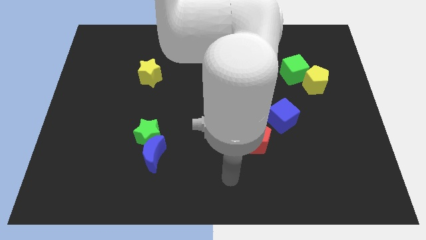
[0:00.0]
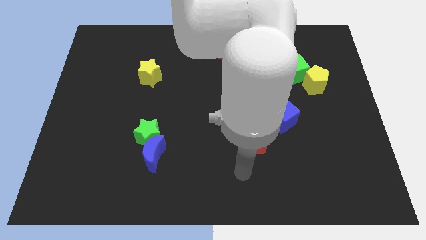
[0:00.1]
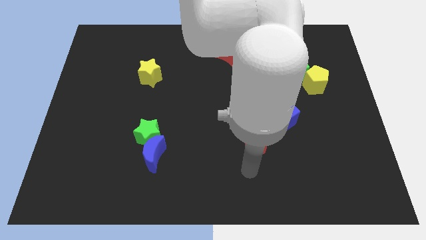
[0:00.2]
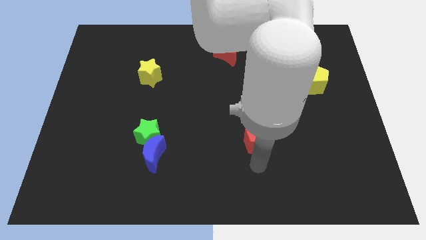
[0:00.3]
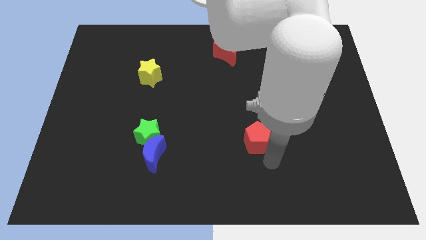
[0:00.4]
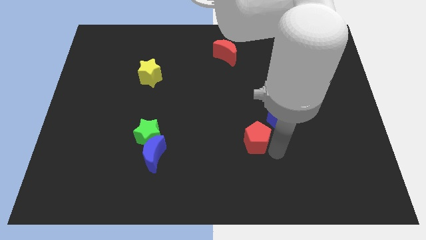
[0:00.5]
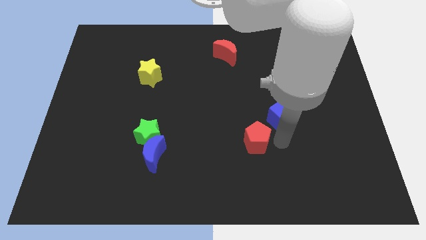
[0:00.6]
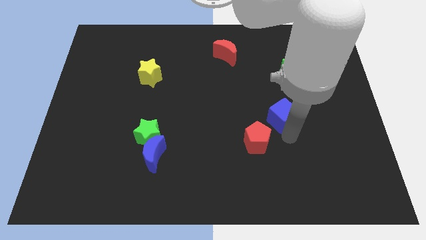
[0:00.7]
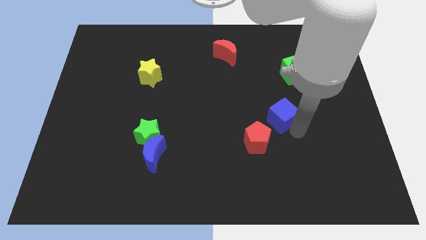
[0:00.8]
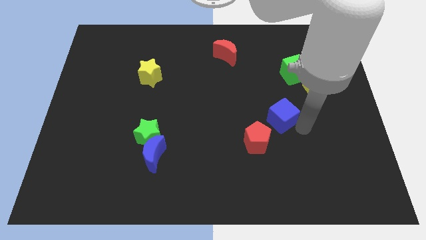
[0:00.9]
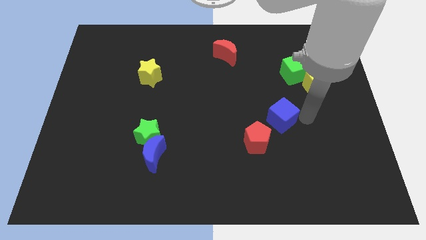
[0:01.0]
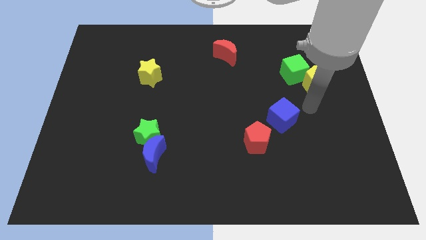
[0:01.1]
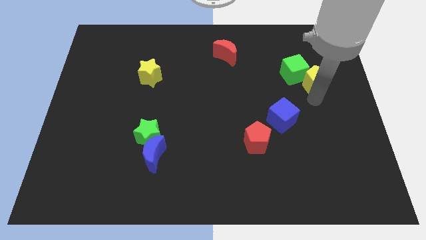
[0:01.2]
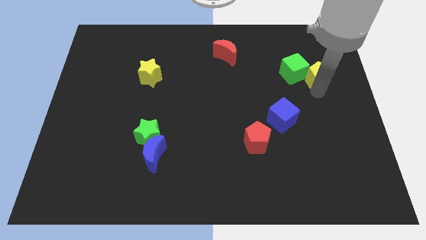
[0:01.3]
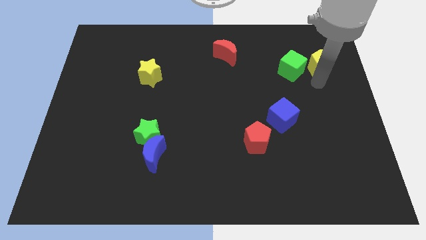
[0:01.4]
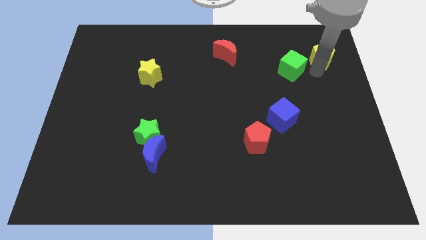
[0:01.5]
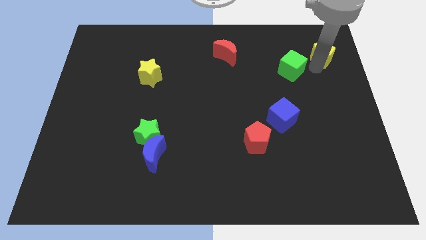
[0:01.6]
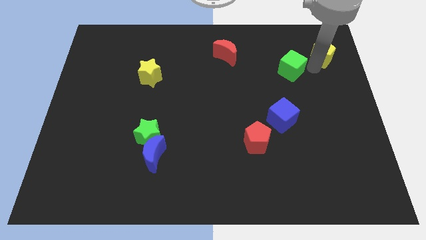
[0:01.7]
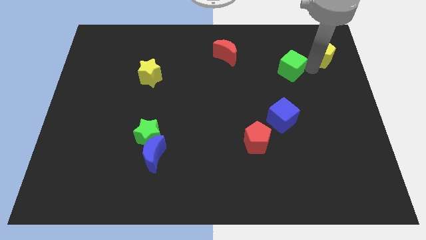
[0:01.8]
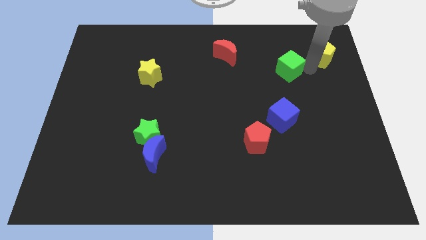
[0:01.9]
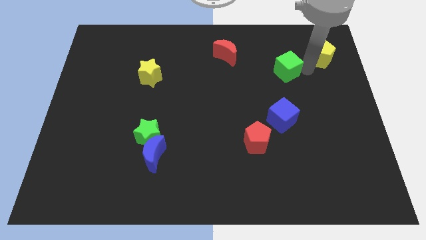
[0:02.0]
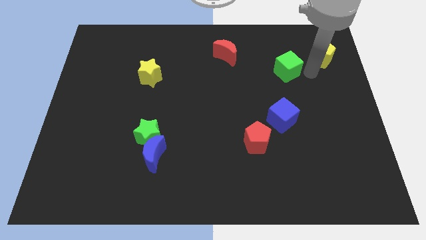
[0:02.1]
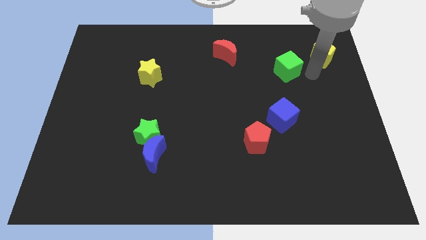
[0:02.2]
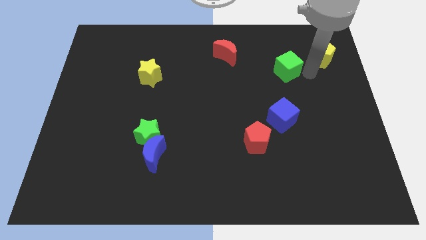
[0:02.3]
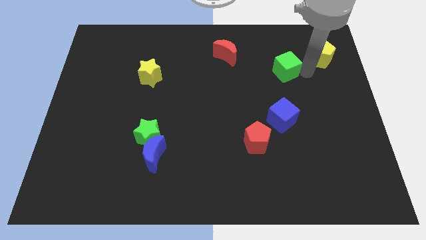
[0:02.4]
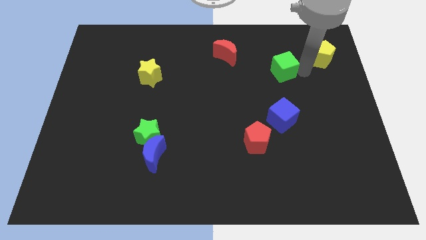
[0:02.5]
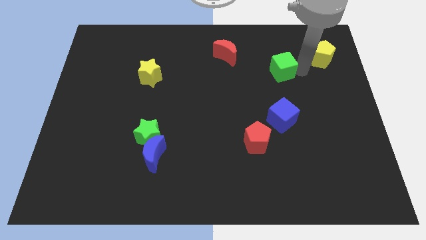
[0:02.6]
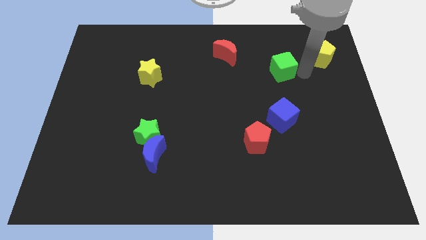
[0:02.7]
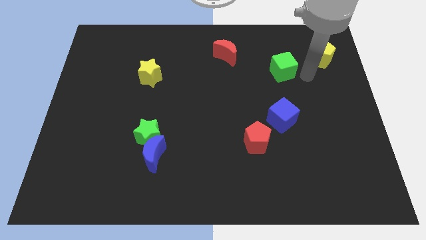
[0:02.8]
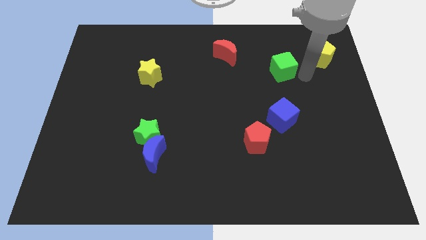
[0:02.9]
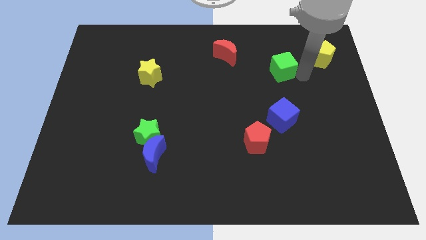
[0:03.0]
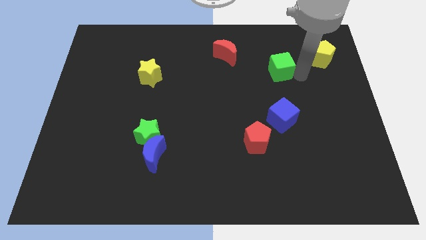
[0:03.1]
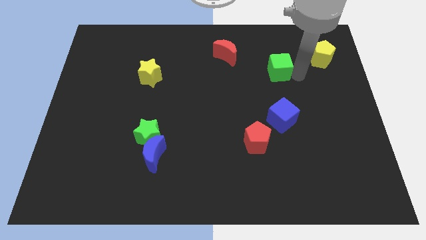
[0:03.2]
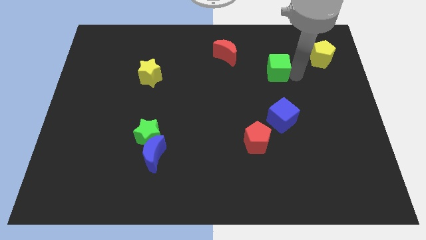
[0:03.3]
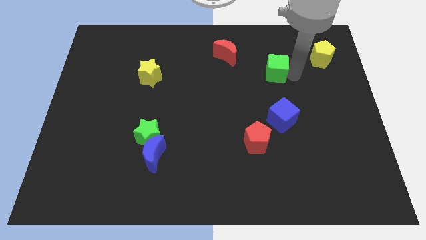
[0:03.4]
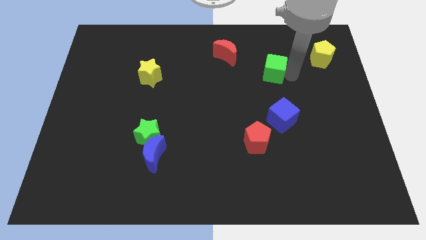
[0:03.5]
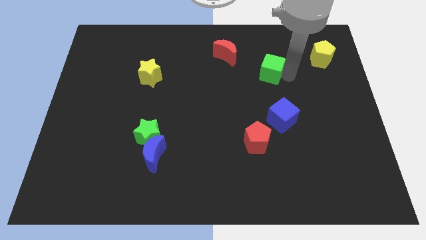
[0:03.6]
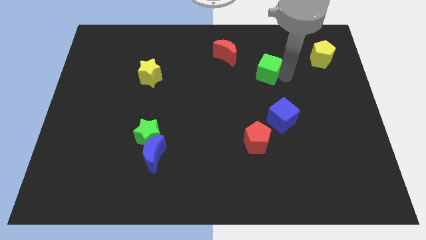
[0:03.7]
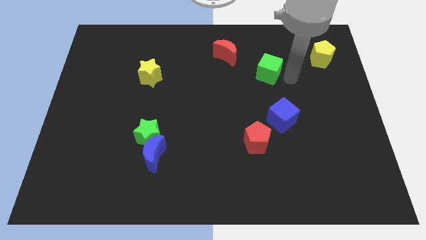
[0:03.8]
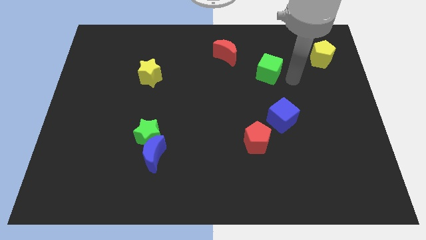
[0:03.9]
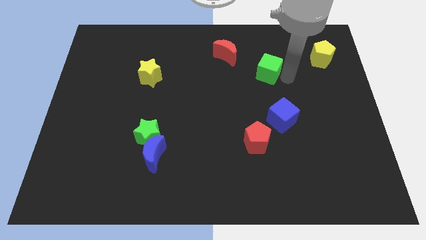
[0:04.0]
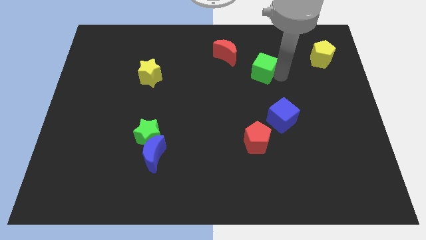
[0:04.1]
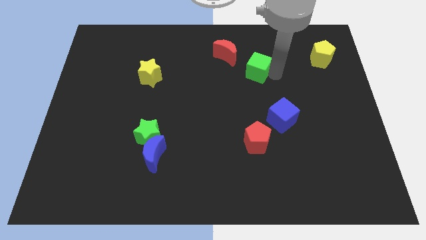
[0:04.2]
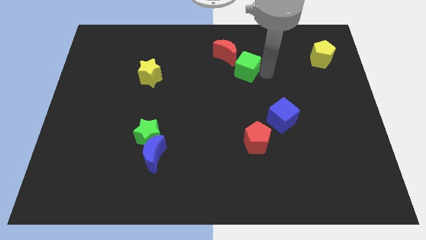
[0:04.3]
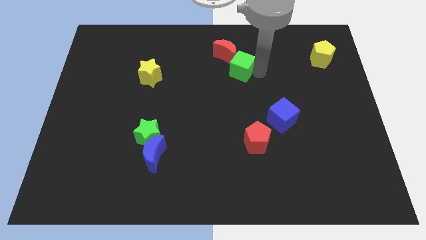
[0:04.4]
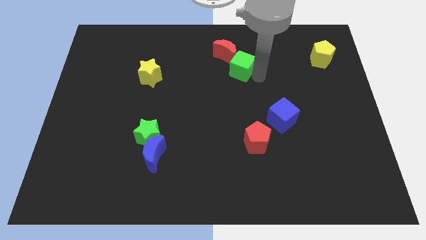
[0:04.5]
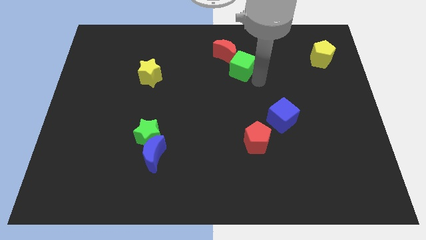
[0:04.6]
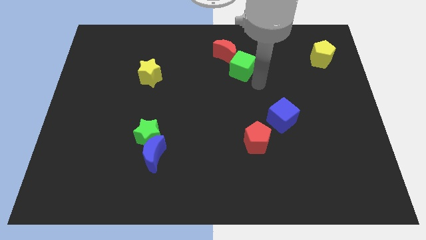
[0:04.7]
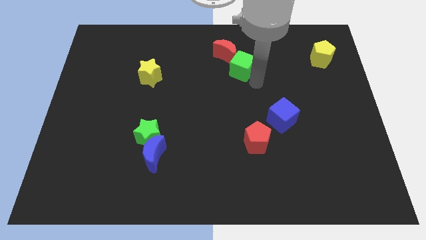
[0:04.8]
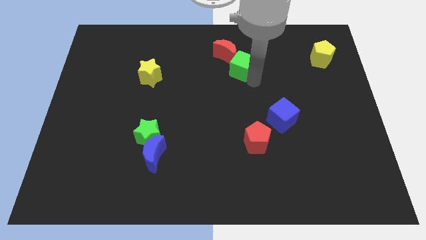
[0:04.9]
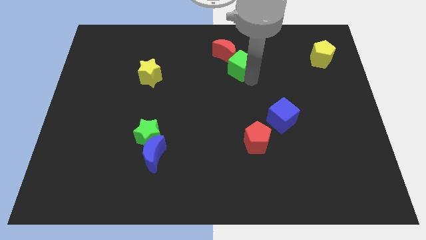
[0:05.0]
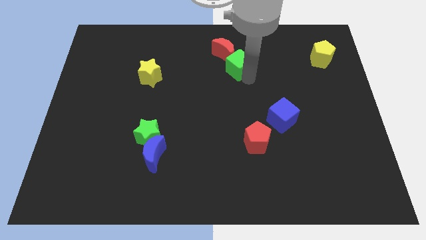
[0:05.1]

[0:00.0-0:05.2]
push the green cube towards the red moon

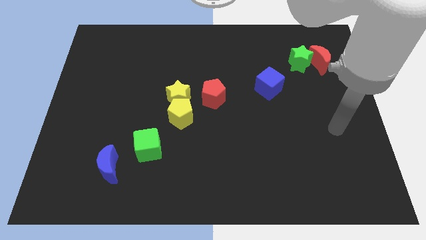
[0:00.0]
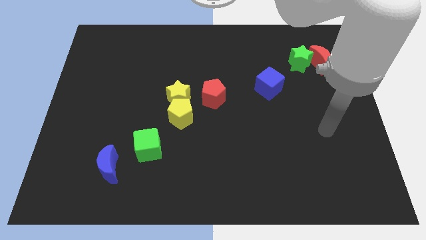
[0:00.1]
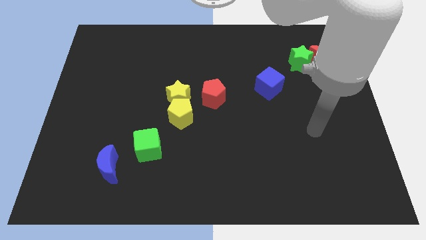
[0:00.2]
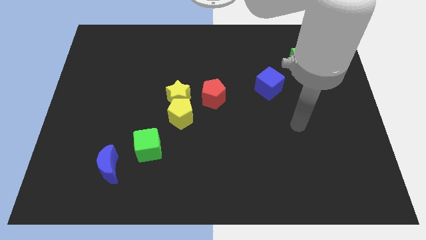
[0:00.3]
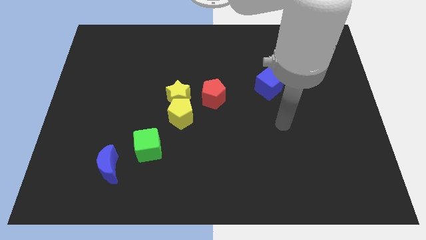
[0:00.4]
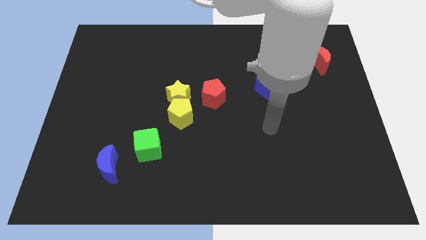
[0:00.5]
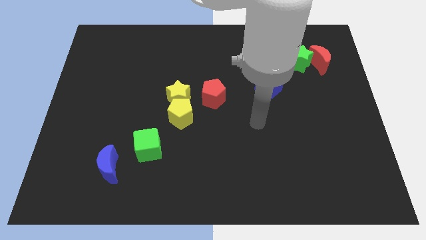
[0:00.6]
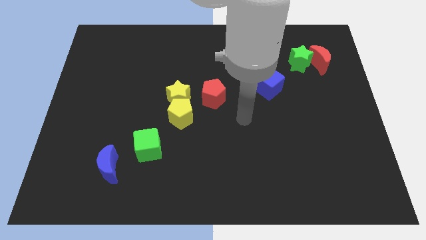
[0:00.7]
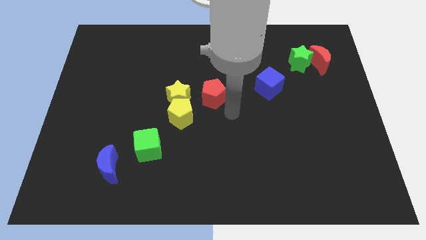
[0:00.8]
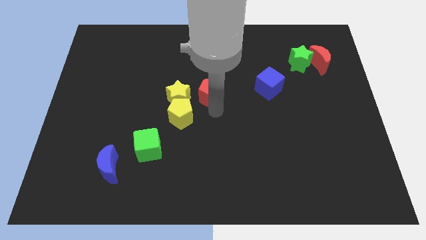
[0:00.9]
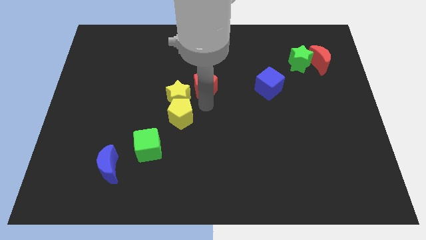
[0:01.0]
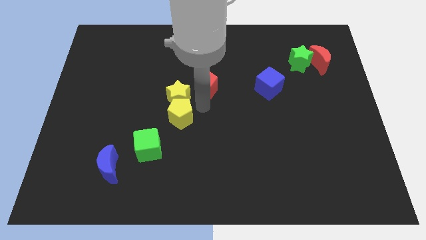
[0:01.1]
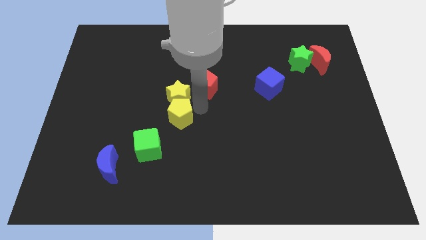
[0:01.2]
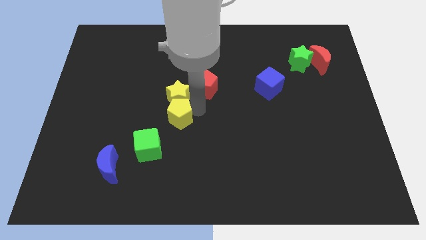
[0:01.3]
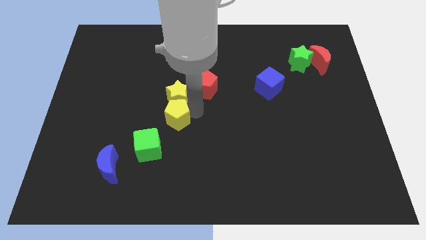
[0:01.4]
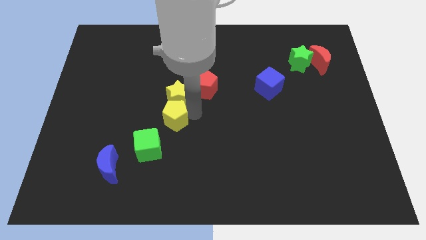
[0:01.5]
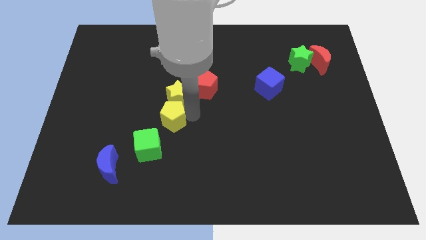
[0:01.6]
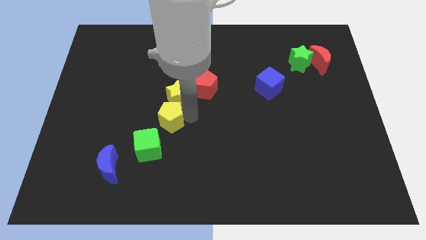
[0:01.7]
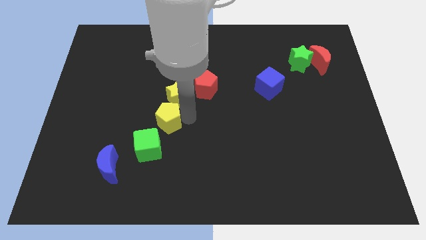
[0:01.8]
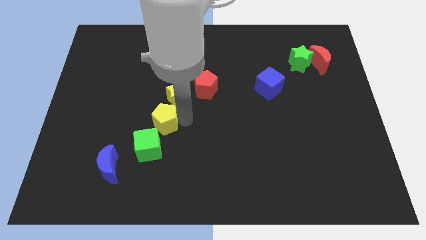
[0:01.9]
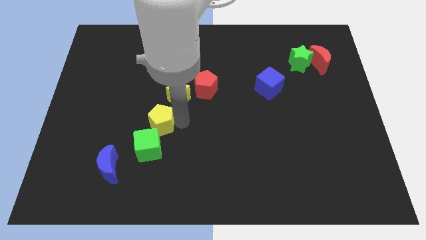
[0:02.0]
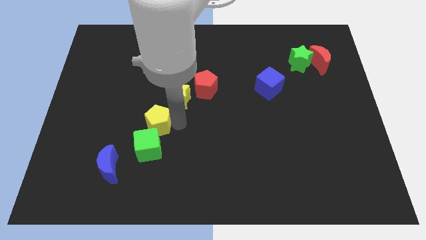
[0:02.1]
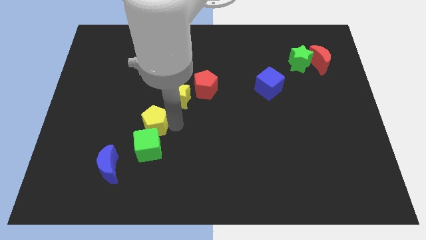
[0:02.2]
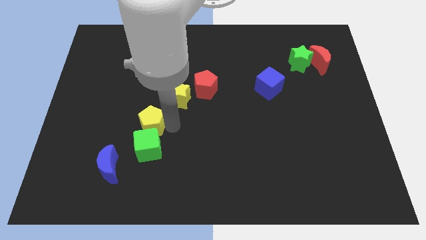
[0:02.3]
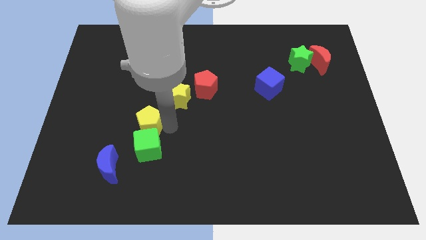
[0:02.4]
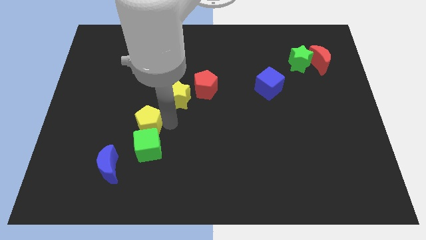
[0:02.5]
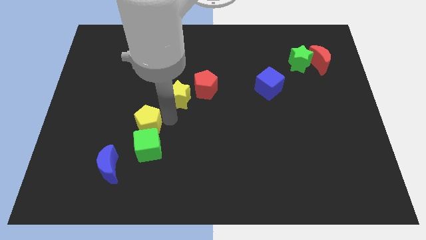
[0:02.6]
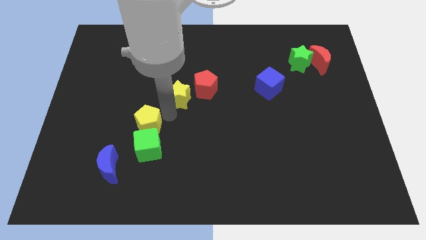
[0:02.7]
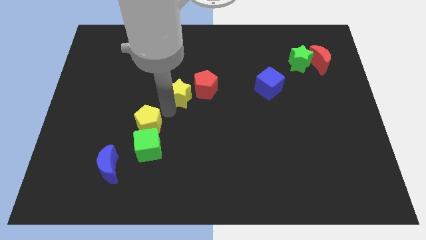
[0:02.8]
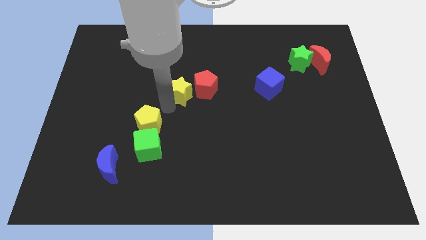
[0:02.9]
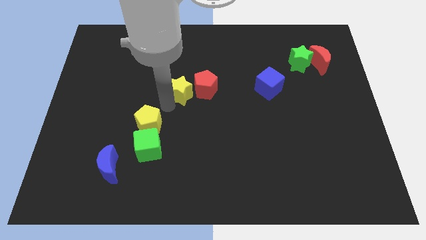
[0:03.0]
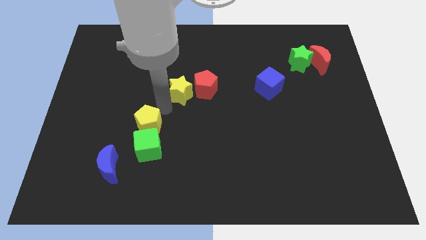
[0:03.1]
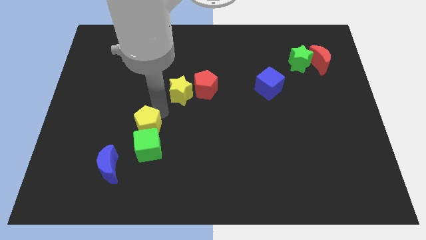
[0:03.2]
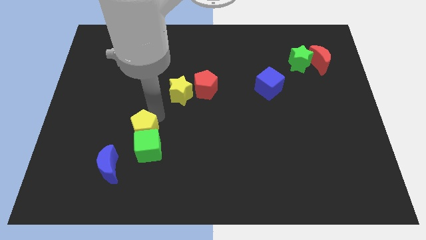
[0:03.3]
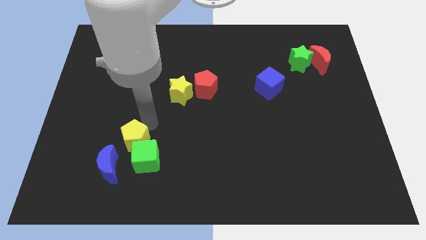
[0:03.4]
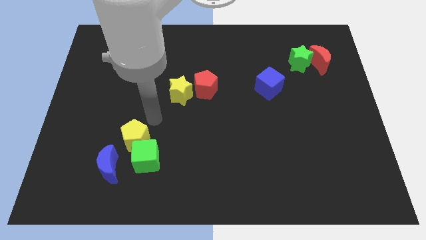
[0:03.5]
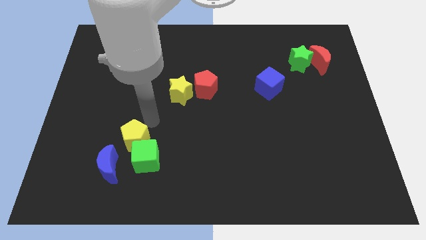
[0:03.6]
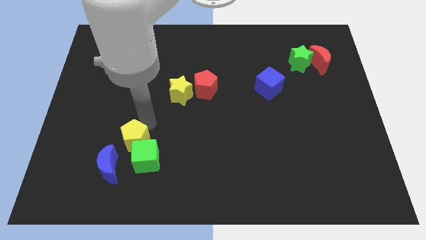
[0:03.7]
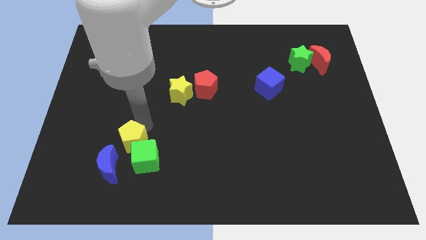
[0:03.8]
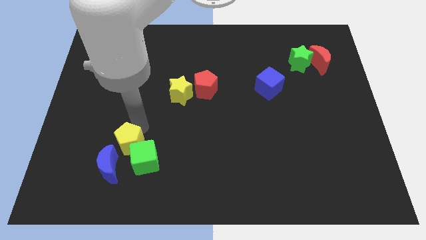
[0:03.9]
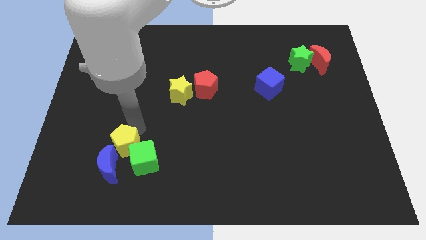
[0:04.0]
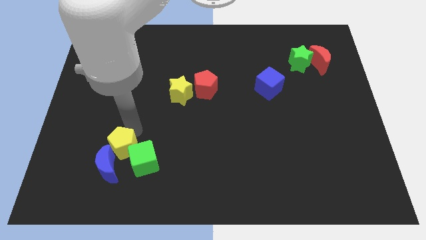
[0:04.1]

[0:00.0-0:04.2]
put the yellow pentagon next to the blue moon
